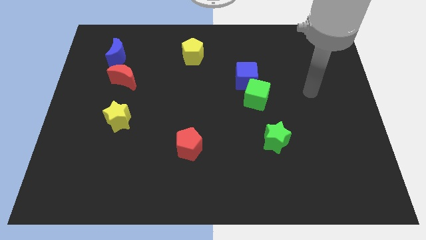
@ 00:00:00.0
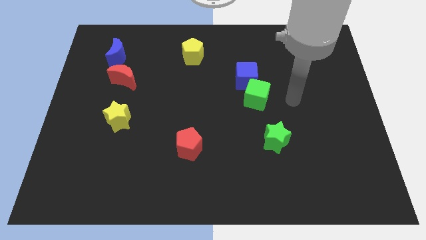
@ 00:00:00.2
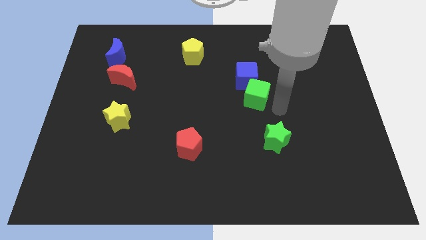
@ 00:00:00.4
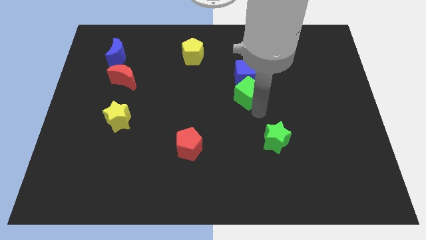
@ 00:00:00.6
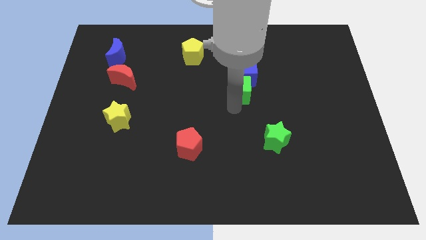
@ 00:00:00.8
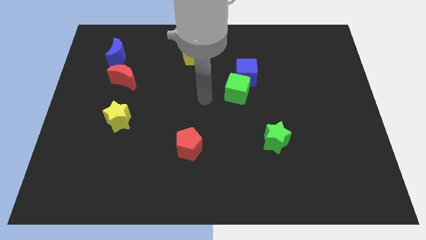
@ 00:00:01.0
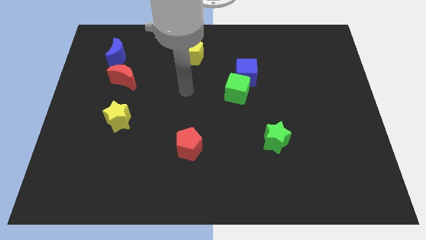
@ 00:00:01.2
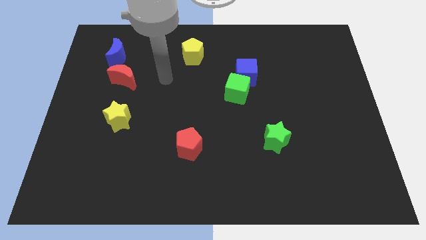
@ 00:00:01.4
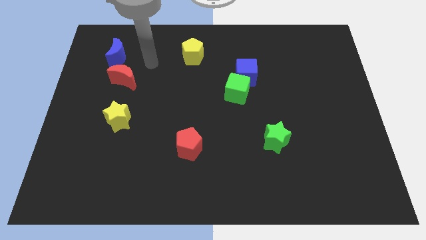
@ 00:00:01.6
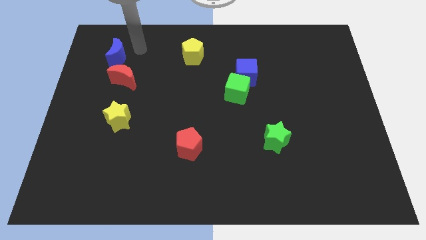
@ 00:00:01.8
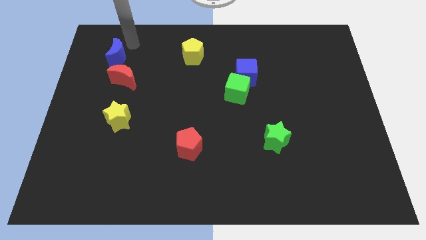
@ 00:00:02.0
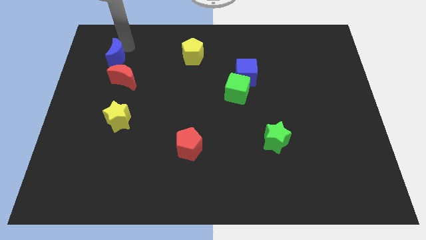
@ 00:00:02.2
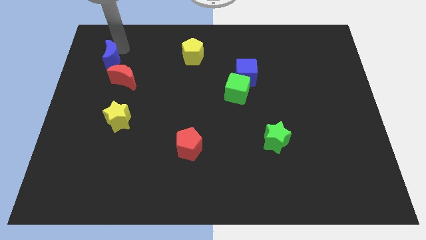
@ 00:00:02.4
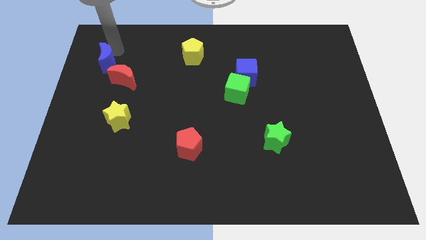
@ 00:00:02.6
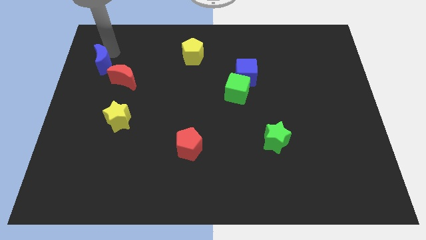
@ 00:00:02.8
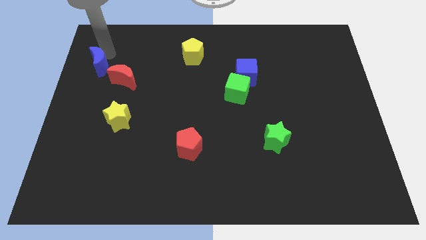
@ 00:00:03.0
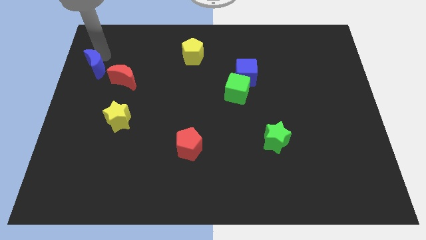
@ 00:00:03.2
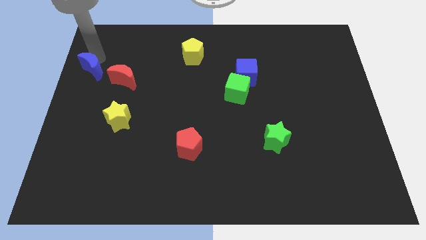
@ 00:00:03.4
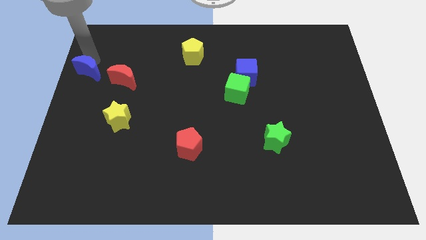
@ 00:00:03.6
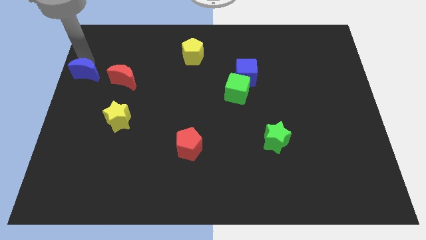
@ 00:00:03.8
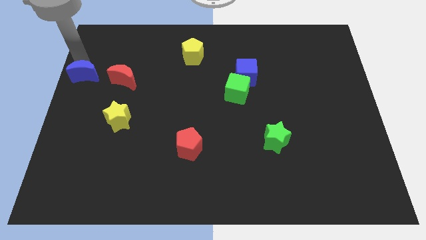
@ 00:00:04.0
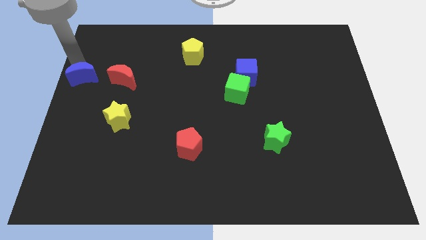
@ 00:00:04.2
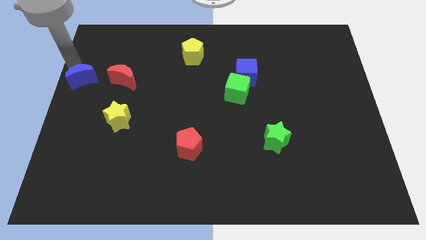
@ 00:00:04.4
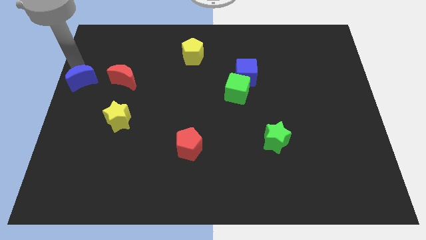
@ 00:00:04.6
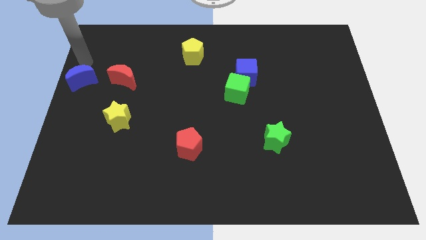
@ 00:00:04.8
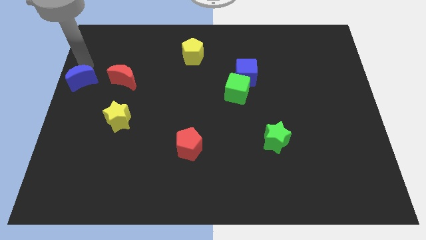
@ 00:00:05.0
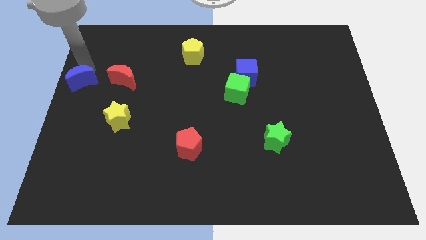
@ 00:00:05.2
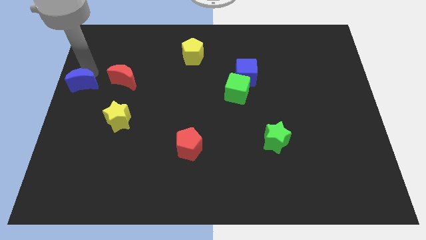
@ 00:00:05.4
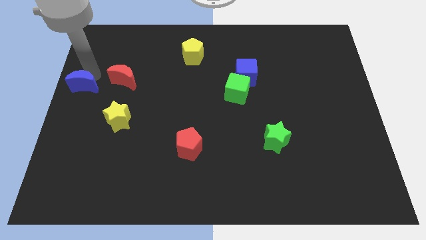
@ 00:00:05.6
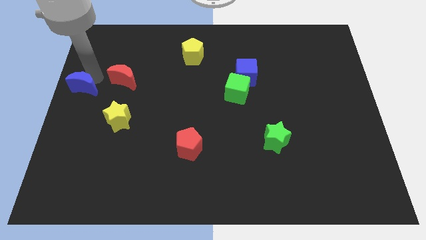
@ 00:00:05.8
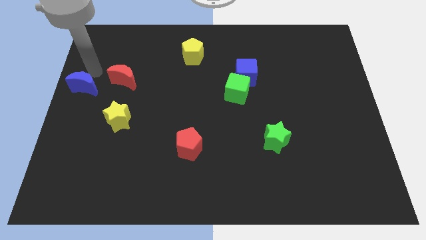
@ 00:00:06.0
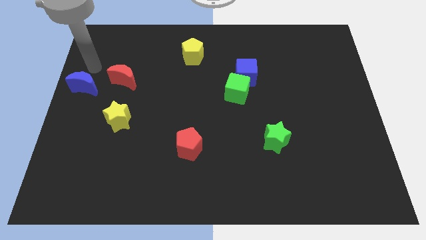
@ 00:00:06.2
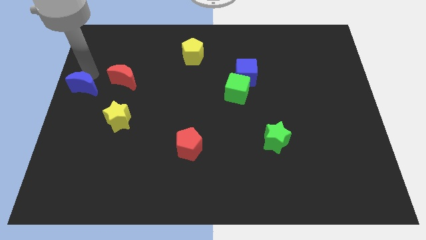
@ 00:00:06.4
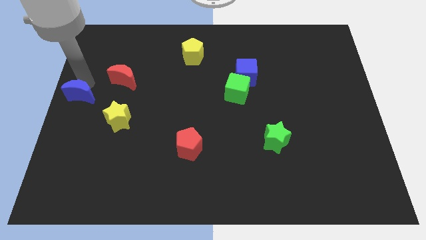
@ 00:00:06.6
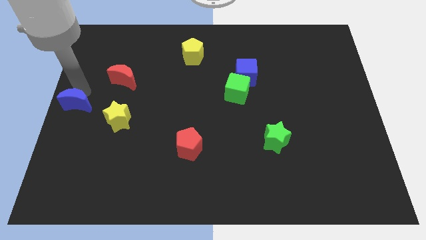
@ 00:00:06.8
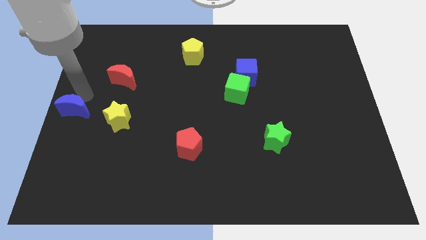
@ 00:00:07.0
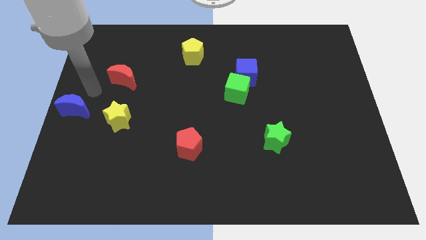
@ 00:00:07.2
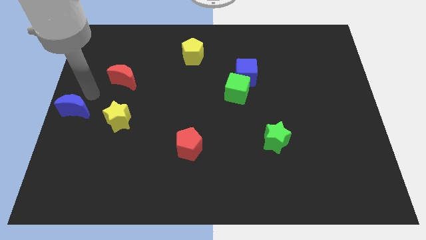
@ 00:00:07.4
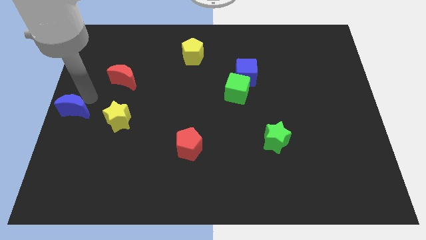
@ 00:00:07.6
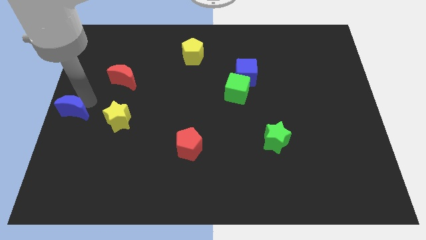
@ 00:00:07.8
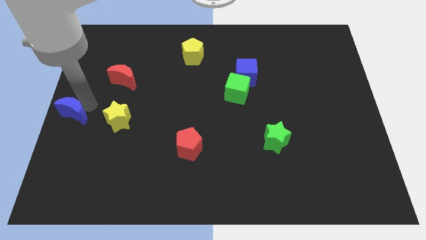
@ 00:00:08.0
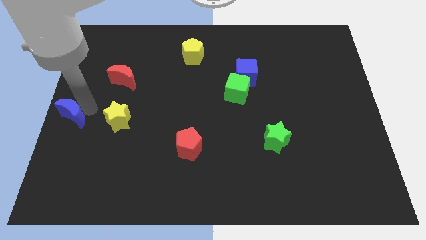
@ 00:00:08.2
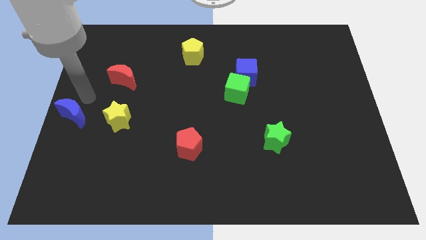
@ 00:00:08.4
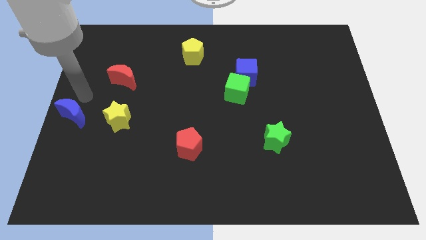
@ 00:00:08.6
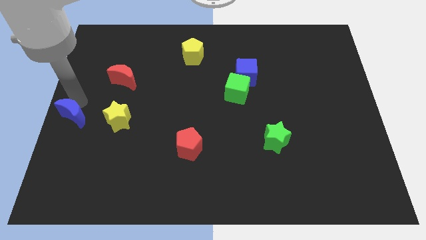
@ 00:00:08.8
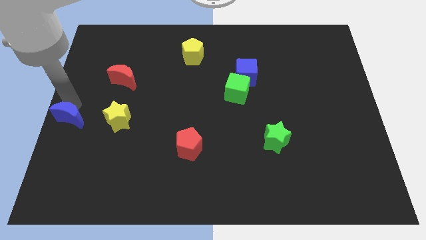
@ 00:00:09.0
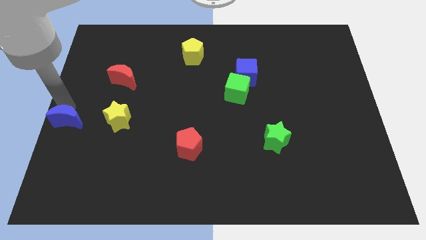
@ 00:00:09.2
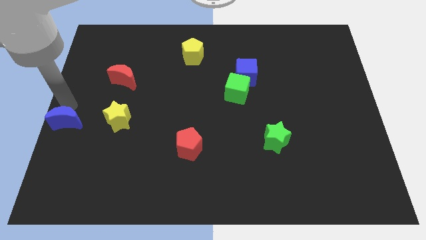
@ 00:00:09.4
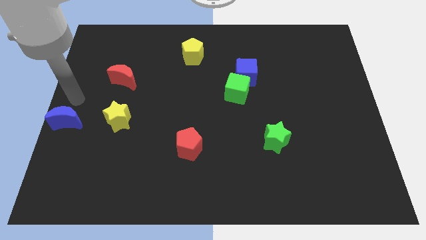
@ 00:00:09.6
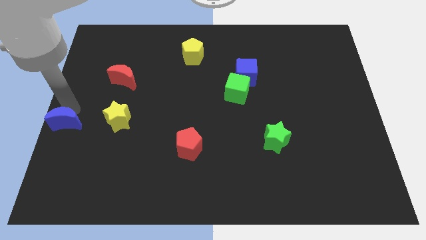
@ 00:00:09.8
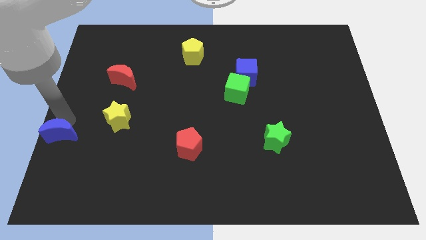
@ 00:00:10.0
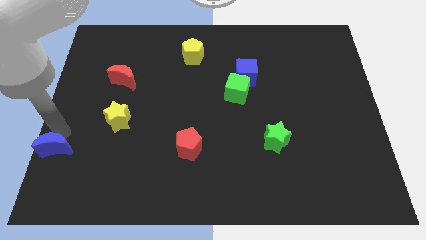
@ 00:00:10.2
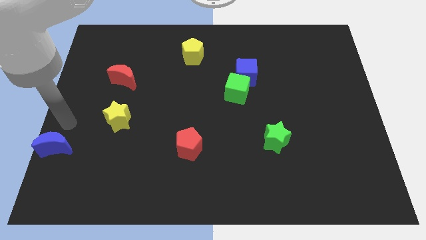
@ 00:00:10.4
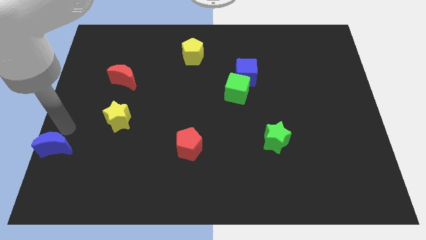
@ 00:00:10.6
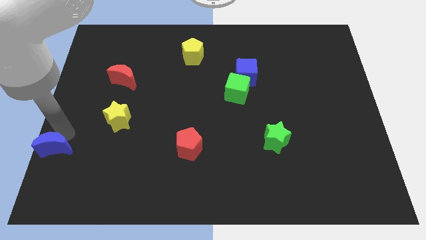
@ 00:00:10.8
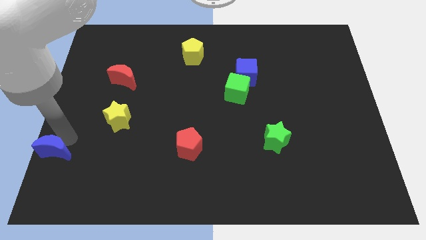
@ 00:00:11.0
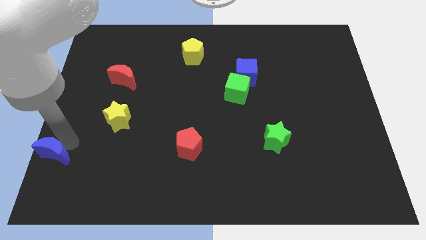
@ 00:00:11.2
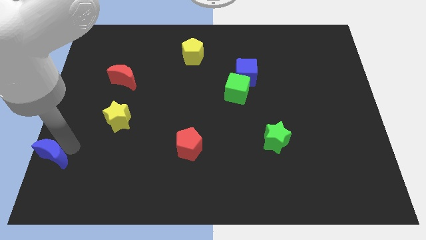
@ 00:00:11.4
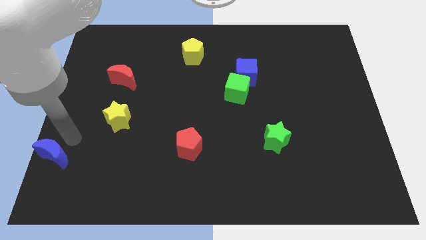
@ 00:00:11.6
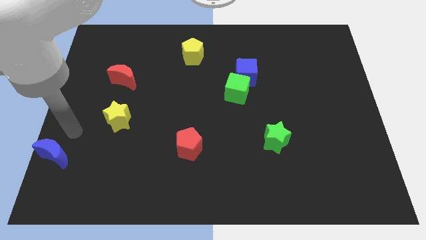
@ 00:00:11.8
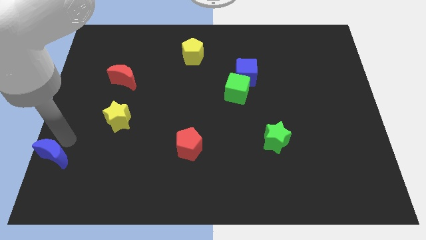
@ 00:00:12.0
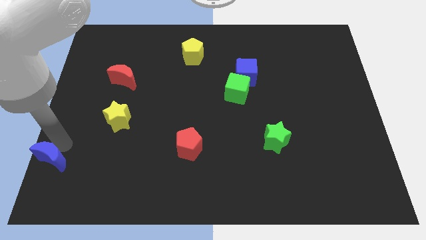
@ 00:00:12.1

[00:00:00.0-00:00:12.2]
move the blue moon to the bottom left corner

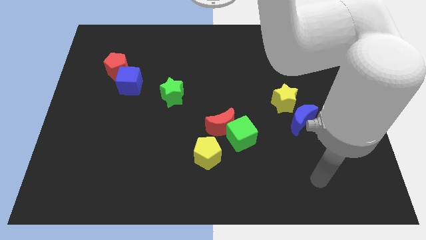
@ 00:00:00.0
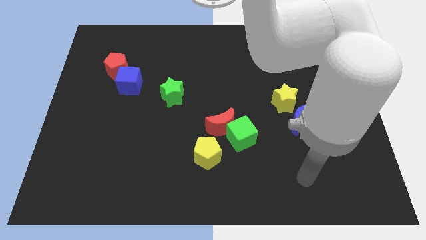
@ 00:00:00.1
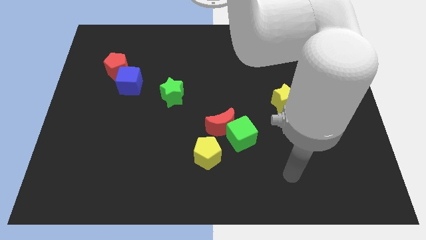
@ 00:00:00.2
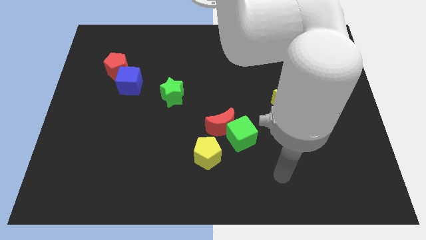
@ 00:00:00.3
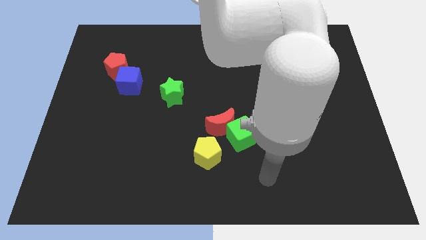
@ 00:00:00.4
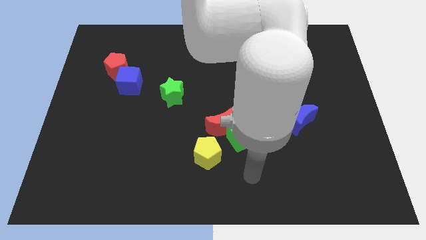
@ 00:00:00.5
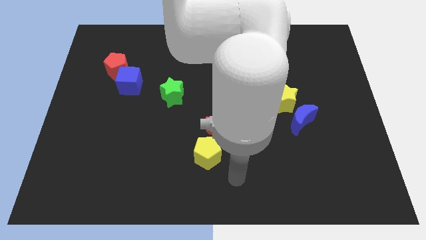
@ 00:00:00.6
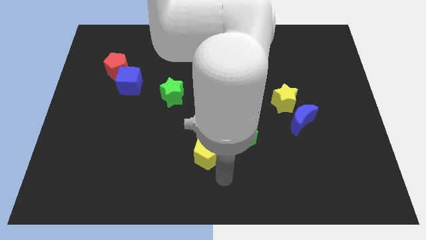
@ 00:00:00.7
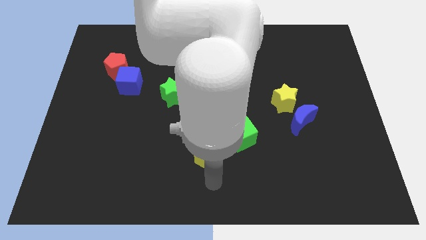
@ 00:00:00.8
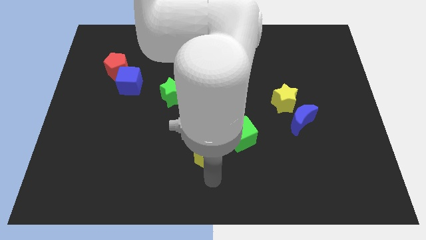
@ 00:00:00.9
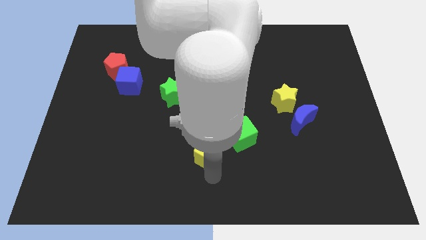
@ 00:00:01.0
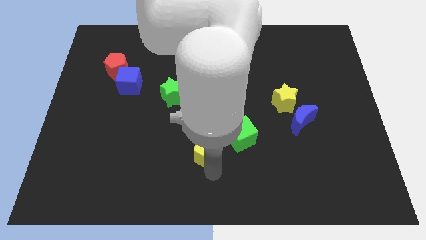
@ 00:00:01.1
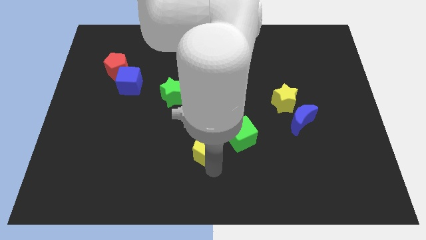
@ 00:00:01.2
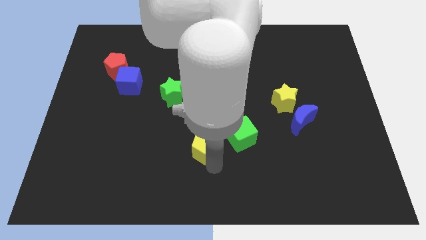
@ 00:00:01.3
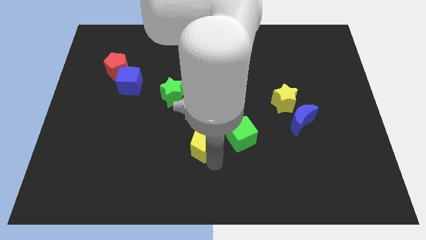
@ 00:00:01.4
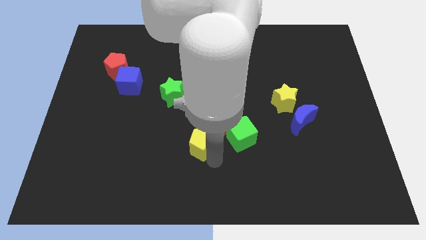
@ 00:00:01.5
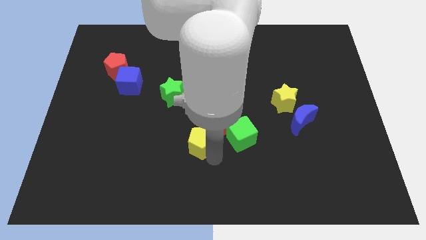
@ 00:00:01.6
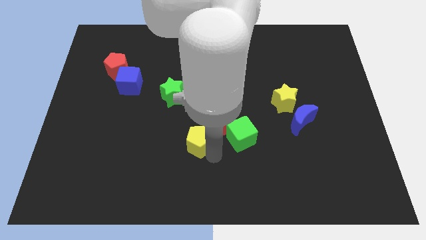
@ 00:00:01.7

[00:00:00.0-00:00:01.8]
move the yellow pentagon to the center
